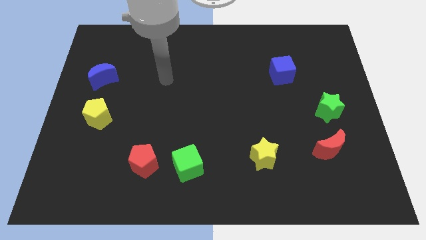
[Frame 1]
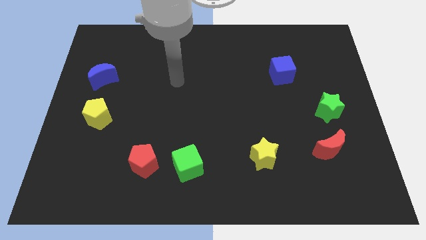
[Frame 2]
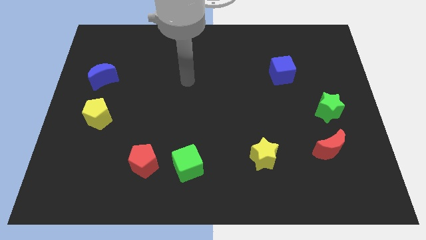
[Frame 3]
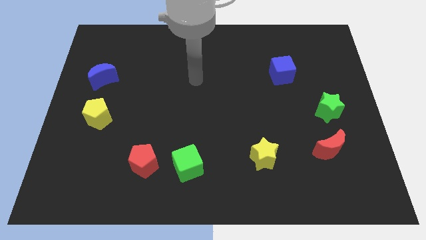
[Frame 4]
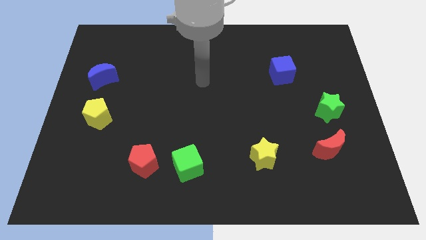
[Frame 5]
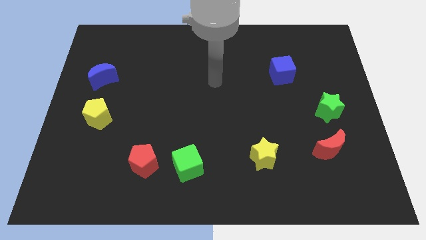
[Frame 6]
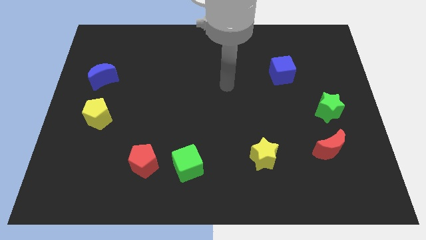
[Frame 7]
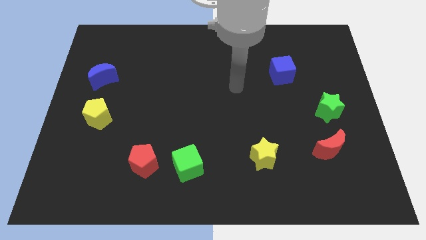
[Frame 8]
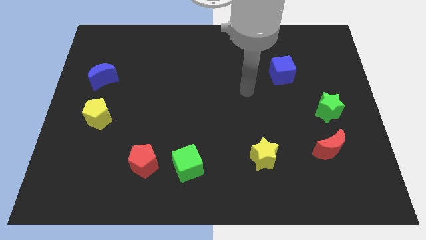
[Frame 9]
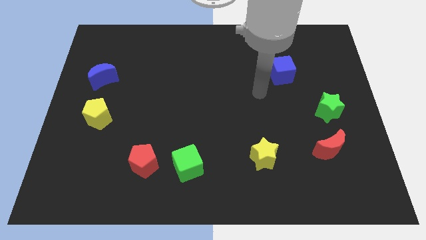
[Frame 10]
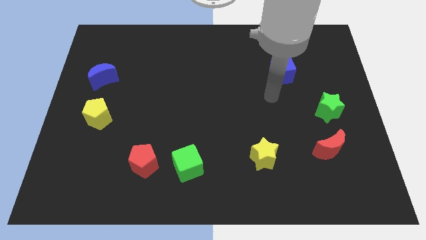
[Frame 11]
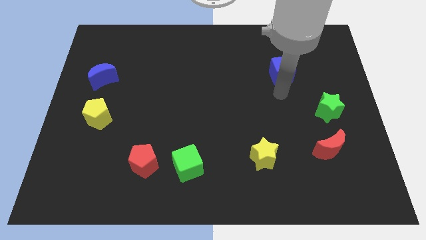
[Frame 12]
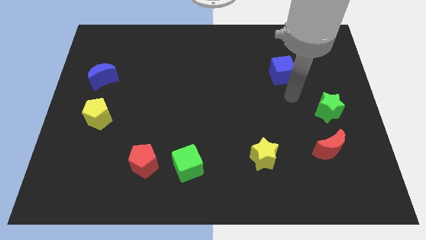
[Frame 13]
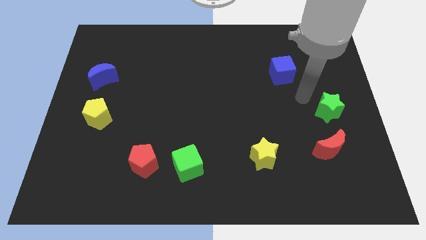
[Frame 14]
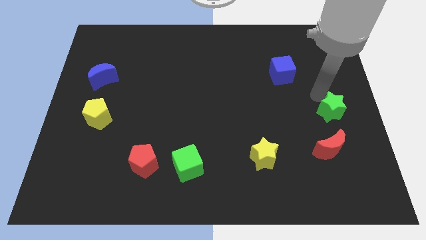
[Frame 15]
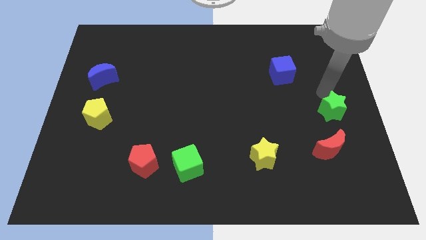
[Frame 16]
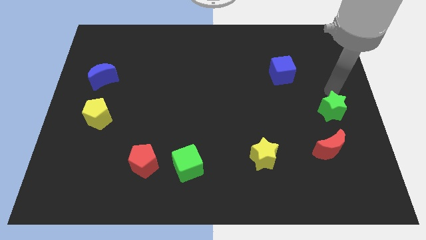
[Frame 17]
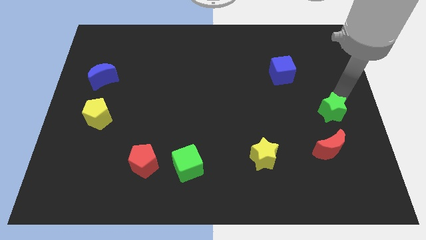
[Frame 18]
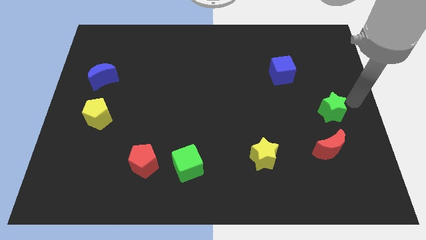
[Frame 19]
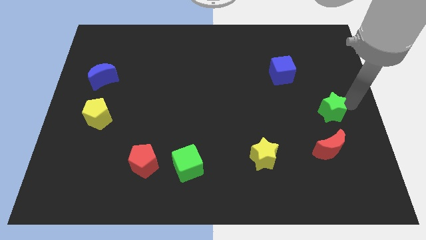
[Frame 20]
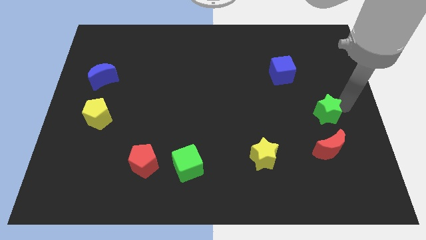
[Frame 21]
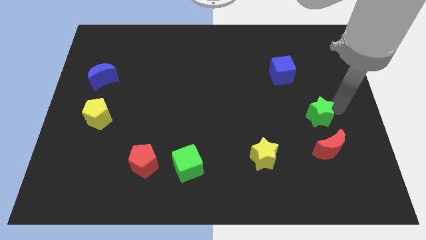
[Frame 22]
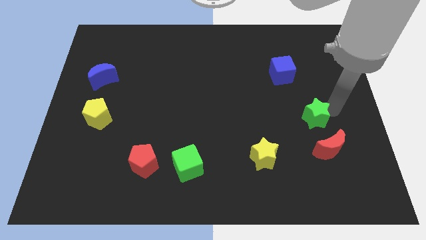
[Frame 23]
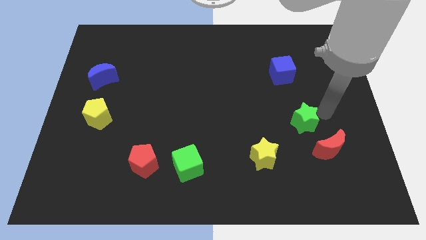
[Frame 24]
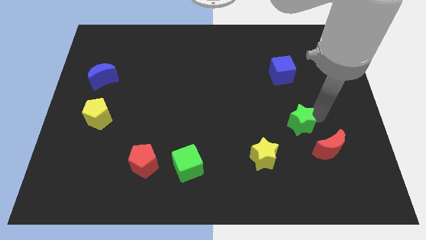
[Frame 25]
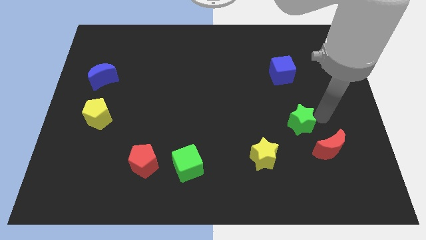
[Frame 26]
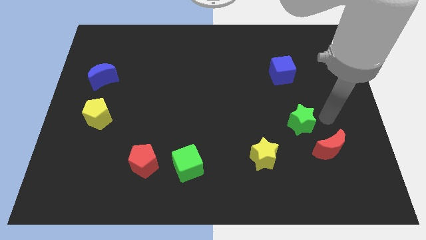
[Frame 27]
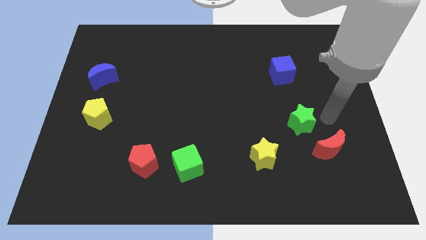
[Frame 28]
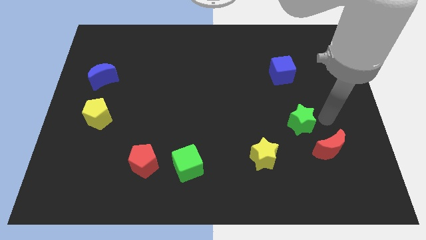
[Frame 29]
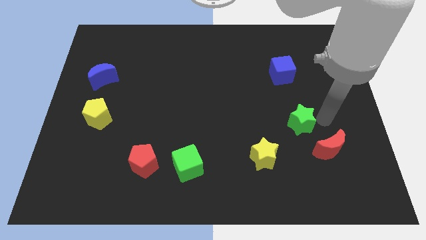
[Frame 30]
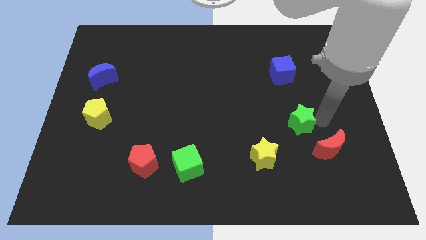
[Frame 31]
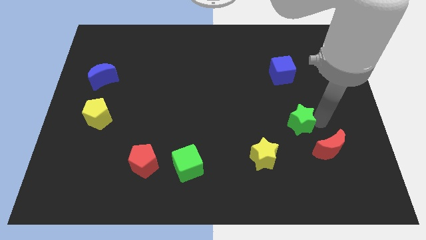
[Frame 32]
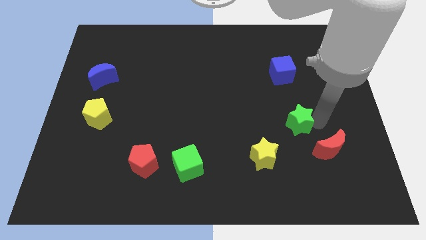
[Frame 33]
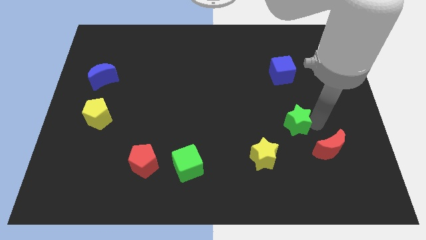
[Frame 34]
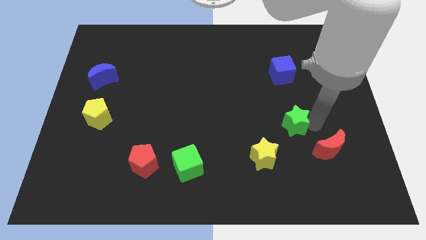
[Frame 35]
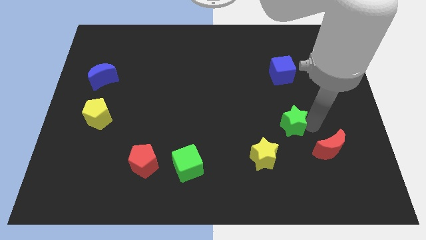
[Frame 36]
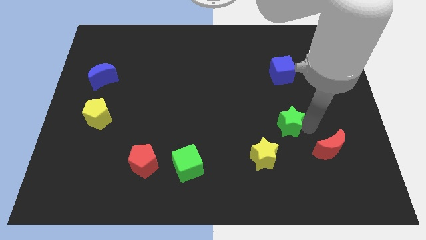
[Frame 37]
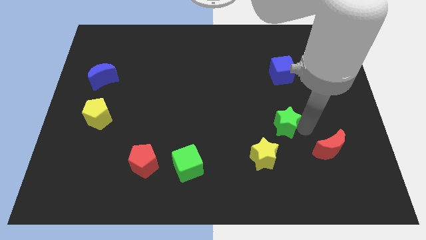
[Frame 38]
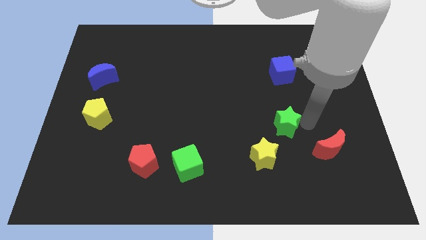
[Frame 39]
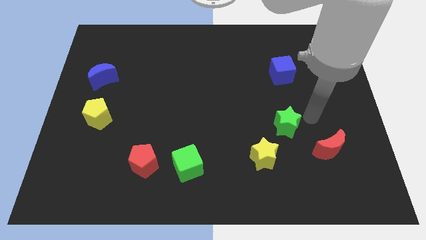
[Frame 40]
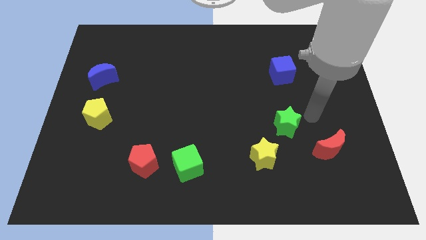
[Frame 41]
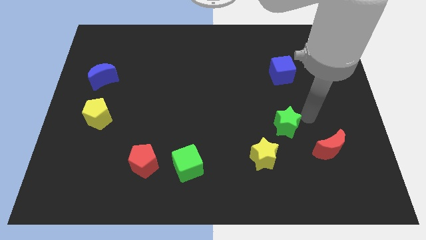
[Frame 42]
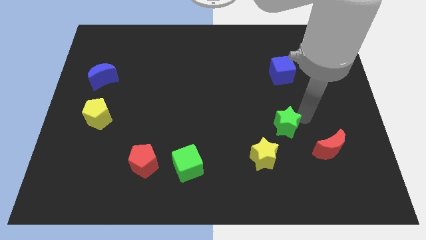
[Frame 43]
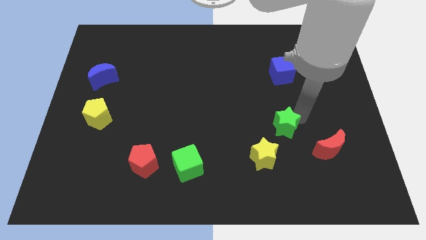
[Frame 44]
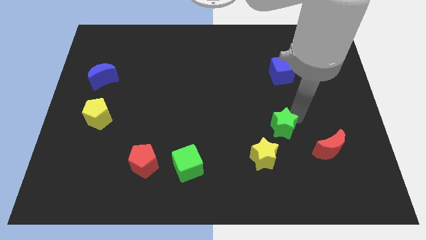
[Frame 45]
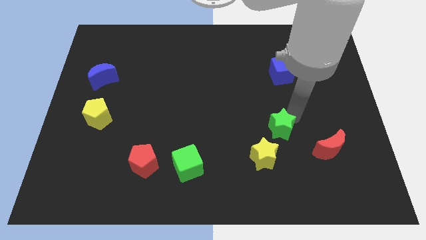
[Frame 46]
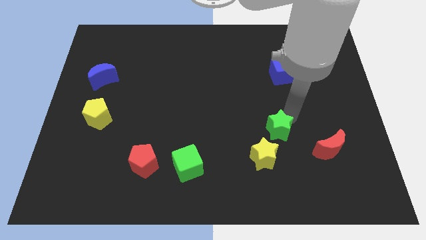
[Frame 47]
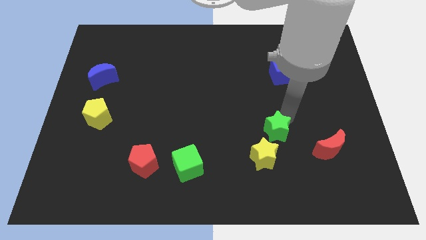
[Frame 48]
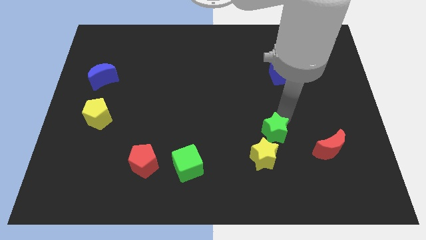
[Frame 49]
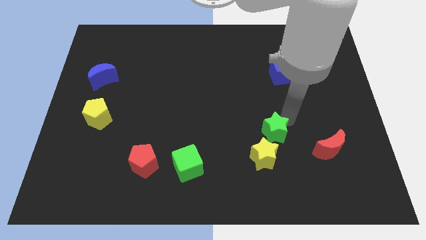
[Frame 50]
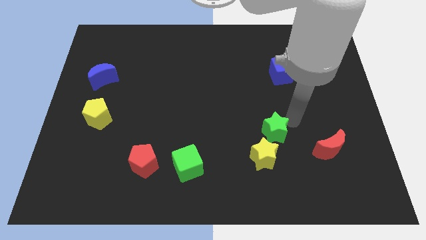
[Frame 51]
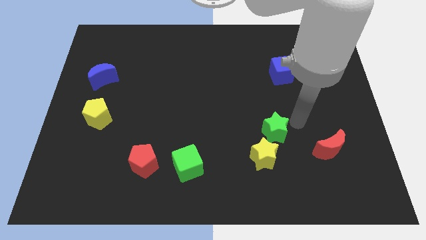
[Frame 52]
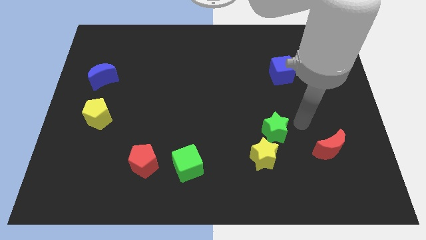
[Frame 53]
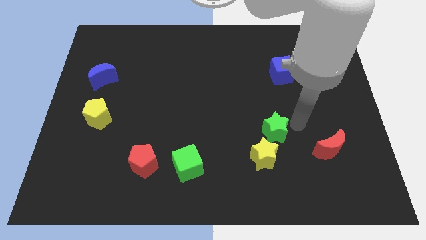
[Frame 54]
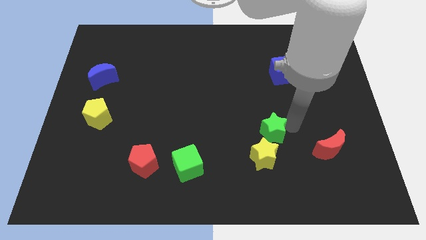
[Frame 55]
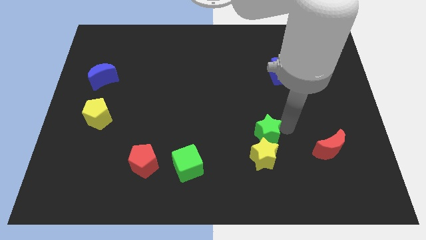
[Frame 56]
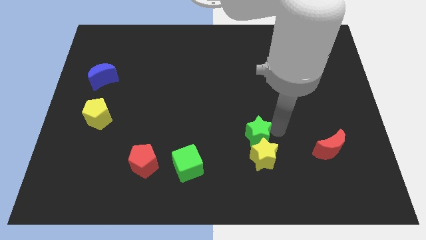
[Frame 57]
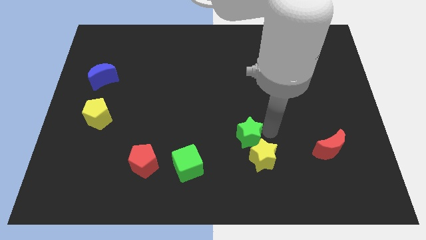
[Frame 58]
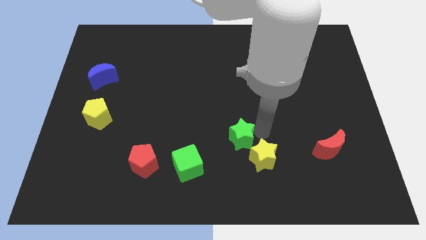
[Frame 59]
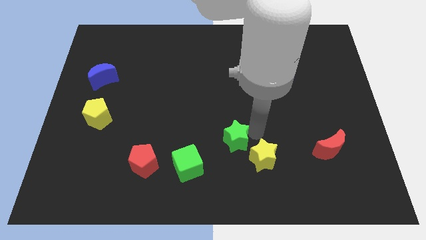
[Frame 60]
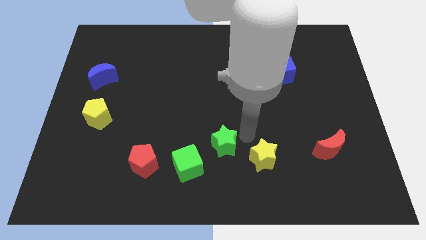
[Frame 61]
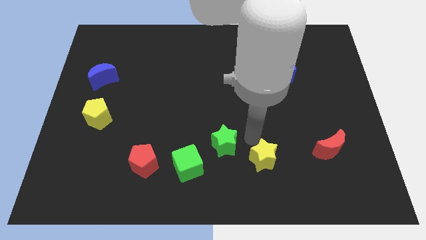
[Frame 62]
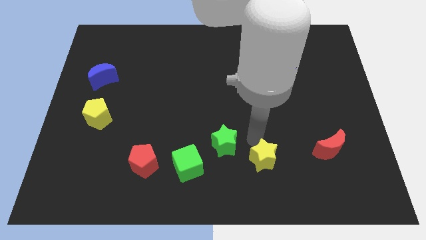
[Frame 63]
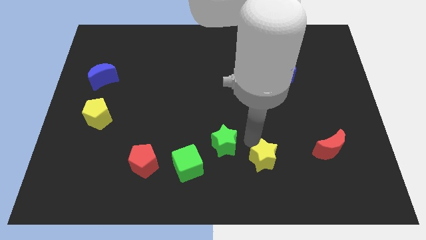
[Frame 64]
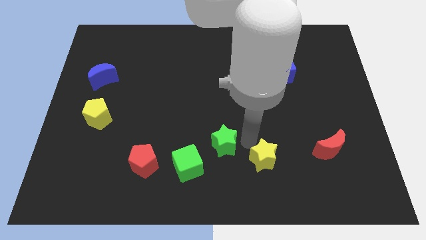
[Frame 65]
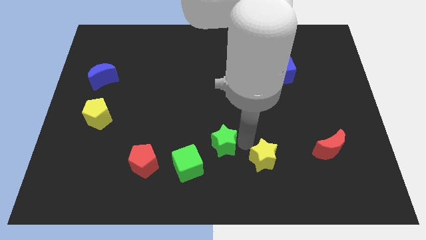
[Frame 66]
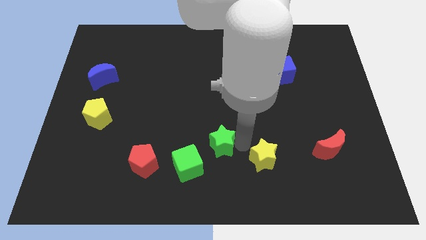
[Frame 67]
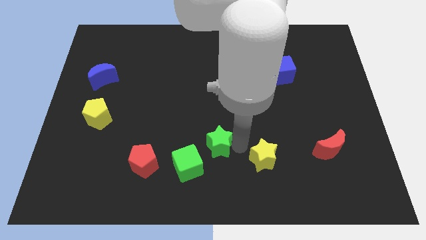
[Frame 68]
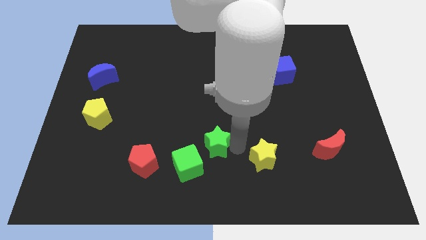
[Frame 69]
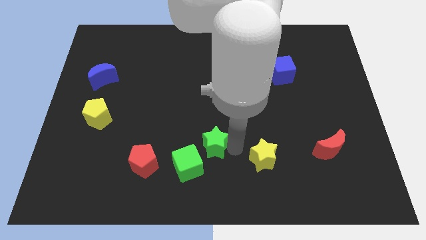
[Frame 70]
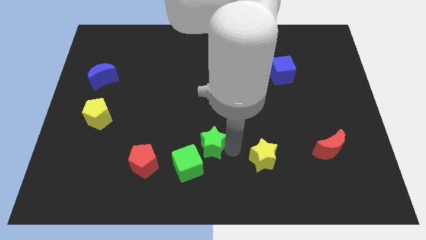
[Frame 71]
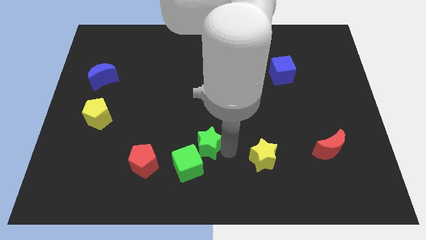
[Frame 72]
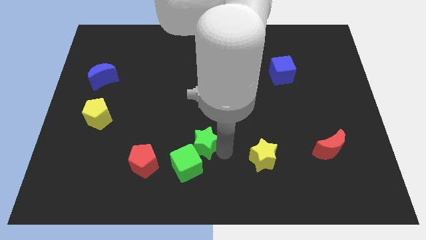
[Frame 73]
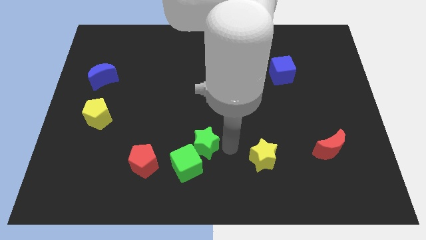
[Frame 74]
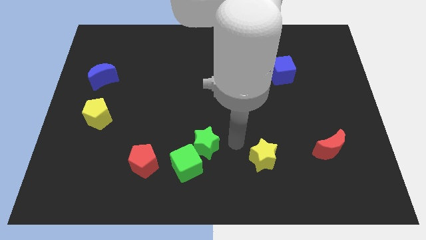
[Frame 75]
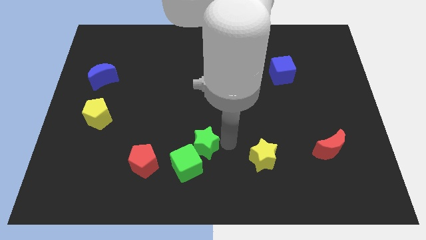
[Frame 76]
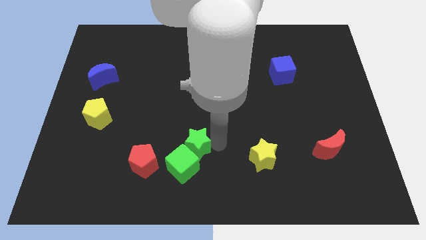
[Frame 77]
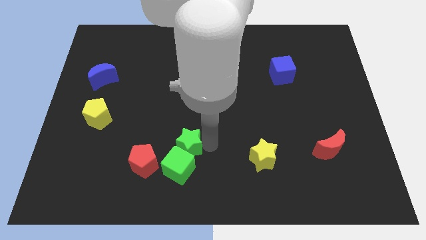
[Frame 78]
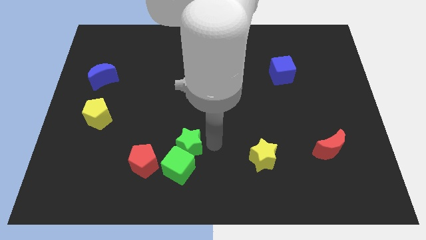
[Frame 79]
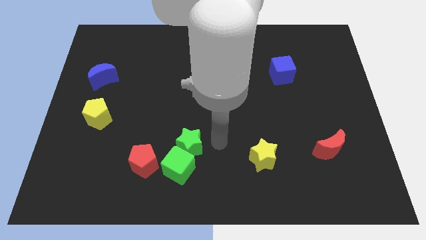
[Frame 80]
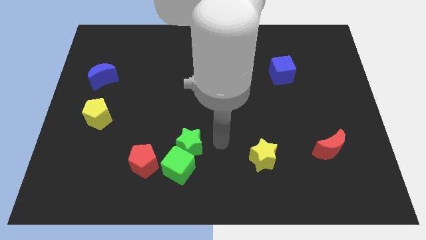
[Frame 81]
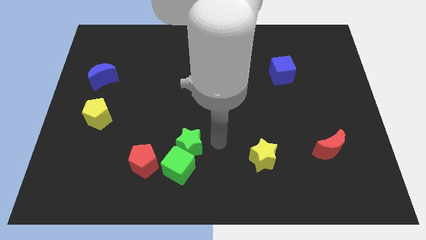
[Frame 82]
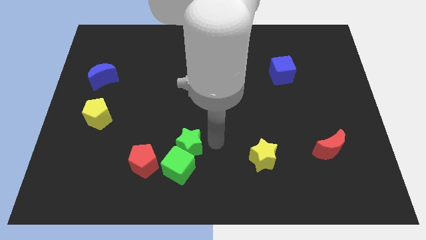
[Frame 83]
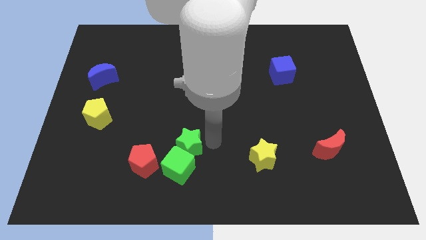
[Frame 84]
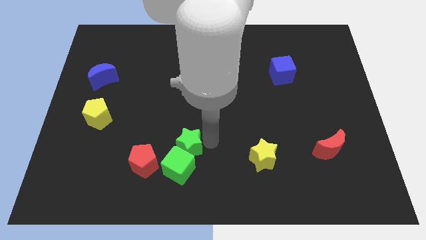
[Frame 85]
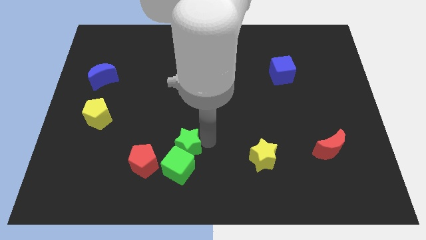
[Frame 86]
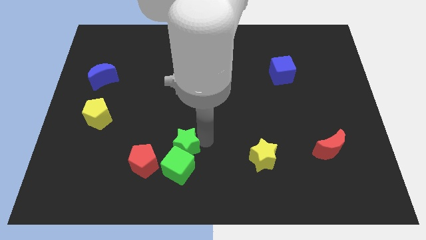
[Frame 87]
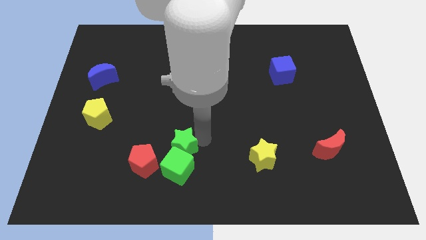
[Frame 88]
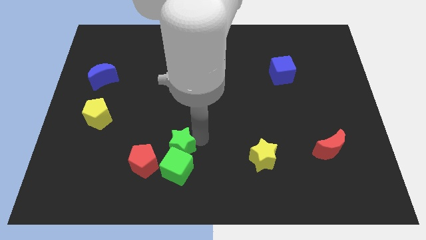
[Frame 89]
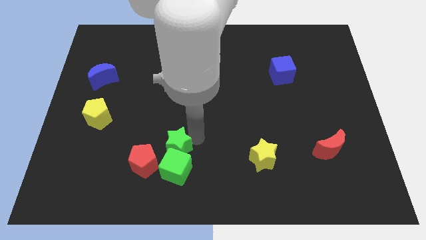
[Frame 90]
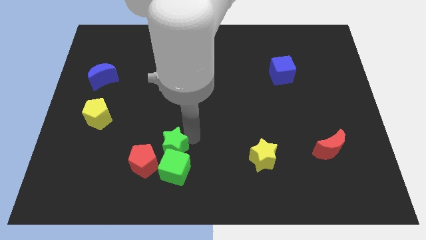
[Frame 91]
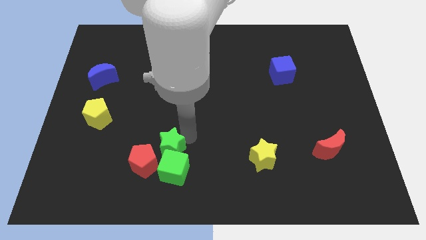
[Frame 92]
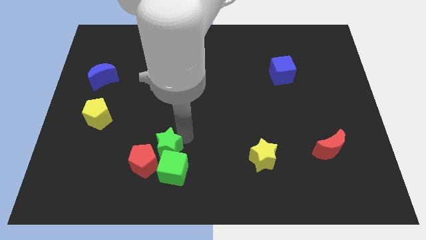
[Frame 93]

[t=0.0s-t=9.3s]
push the green star towards the red pentagon
